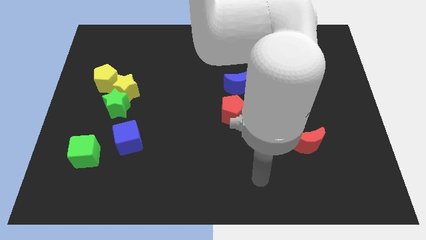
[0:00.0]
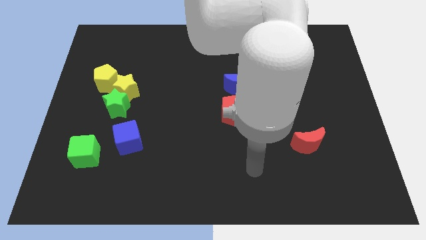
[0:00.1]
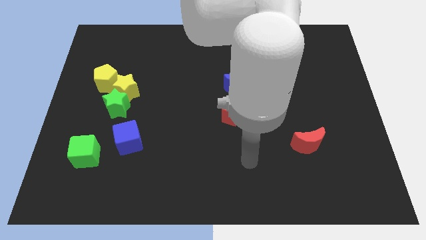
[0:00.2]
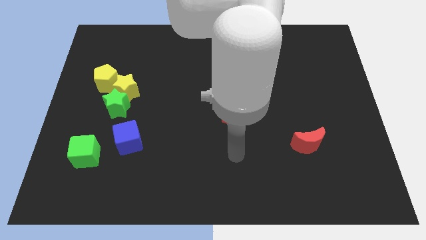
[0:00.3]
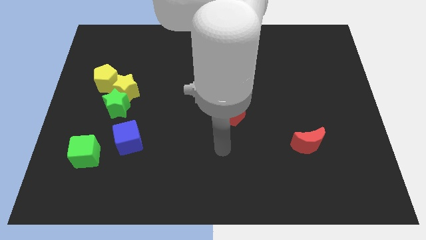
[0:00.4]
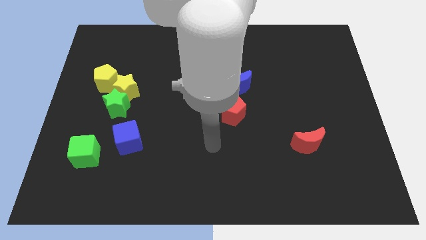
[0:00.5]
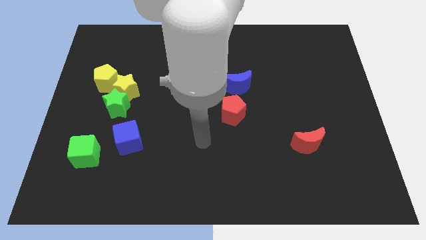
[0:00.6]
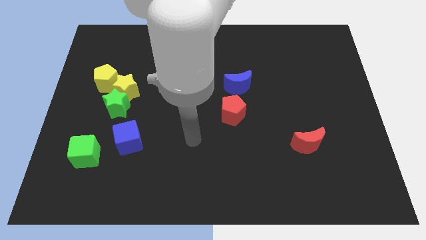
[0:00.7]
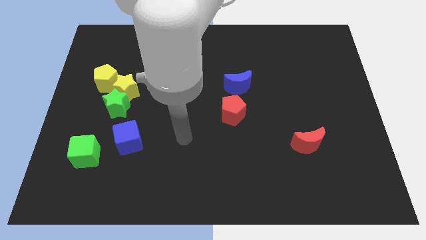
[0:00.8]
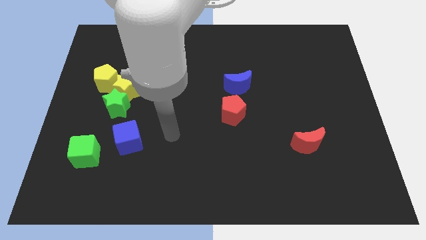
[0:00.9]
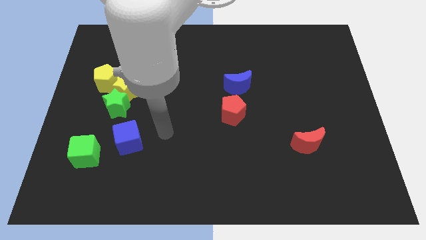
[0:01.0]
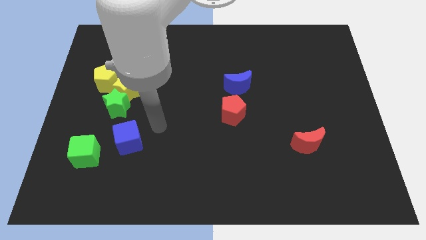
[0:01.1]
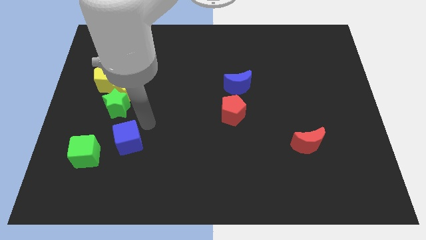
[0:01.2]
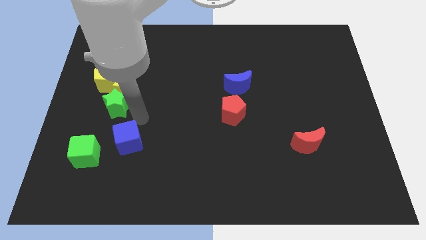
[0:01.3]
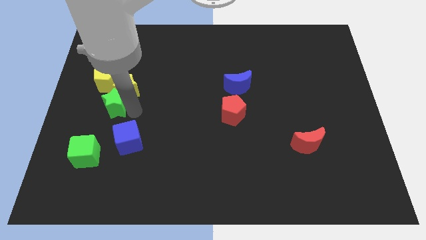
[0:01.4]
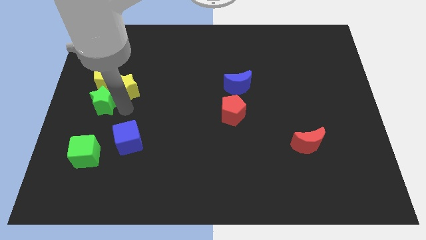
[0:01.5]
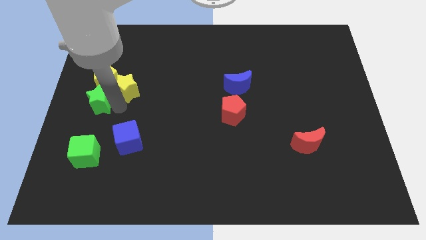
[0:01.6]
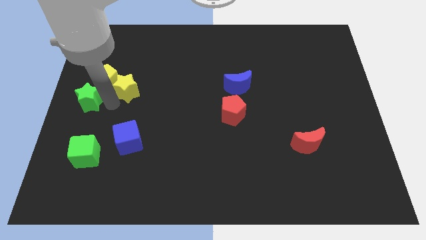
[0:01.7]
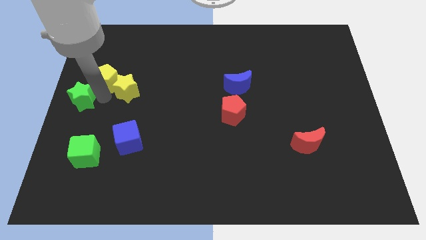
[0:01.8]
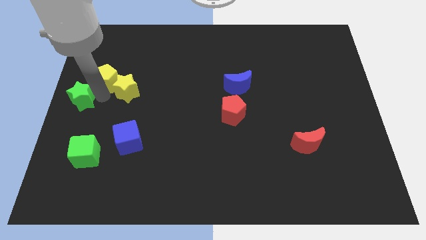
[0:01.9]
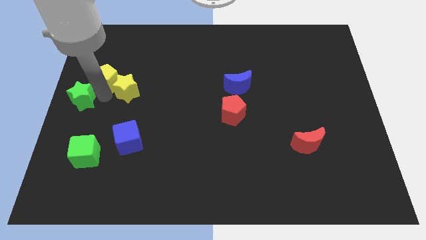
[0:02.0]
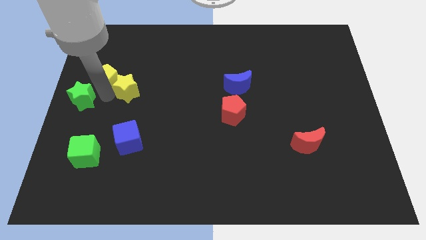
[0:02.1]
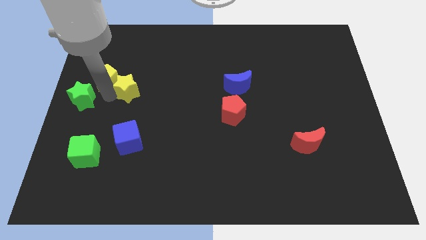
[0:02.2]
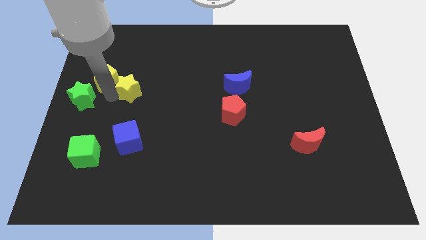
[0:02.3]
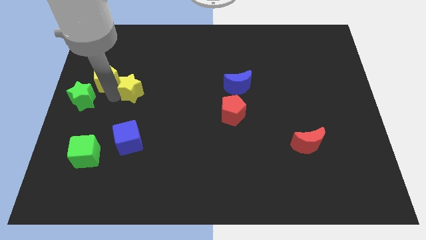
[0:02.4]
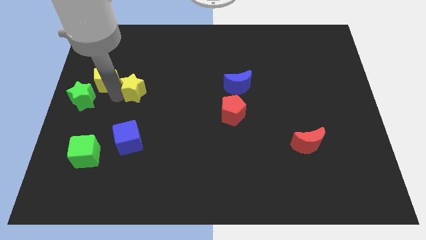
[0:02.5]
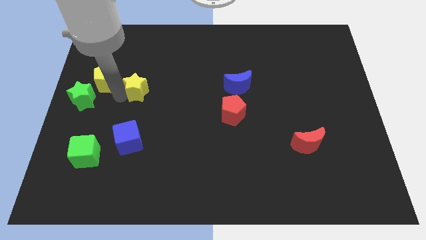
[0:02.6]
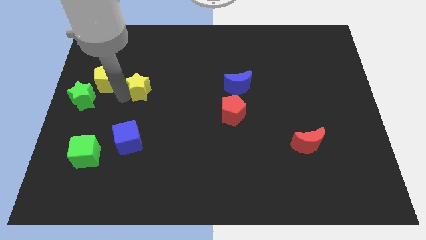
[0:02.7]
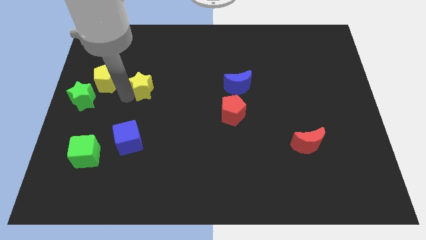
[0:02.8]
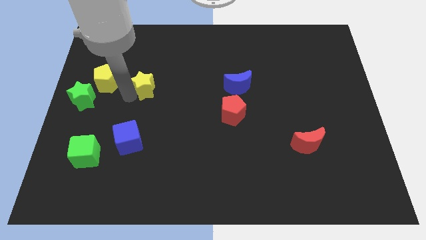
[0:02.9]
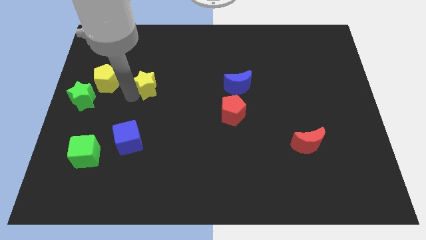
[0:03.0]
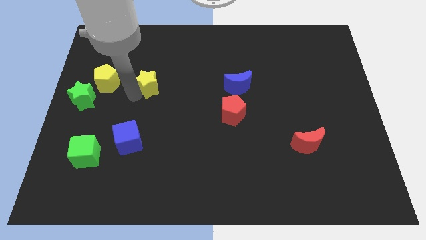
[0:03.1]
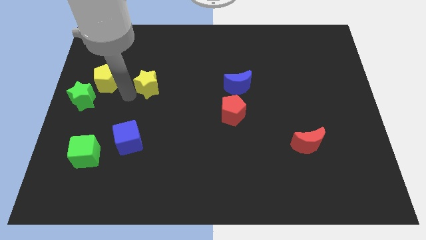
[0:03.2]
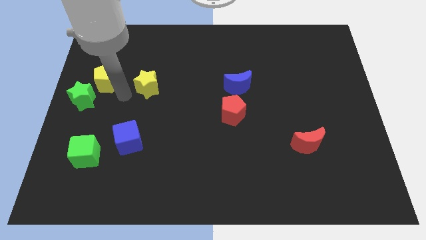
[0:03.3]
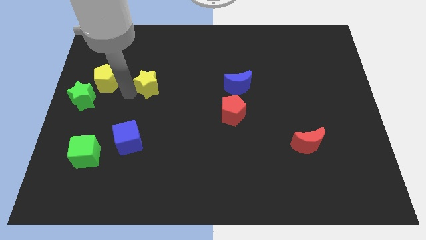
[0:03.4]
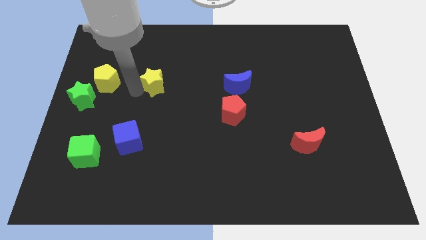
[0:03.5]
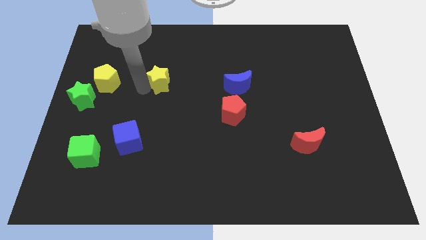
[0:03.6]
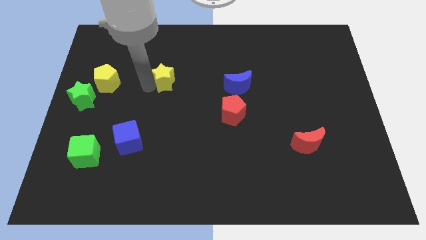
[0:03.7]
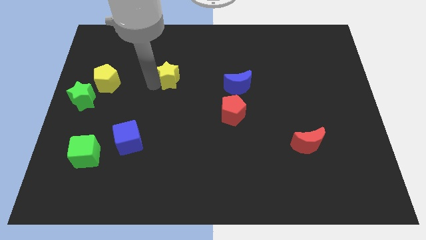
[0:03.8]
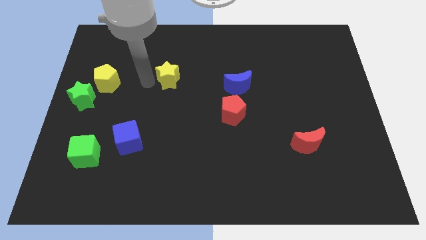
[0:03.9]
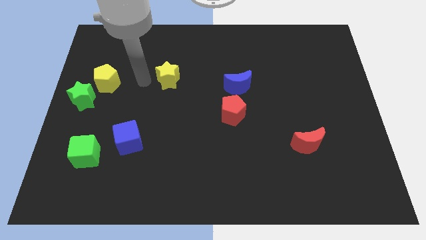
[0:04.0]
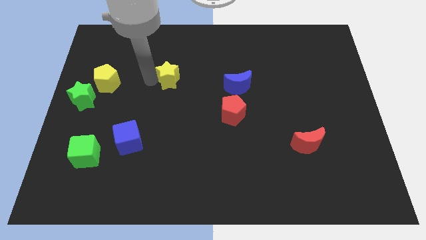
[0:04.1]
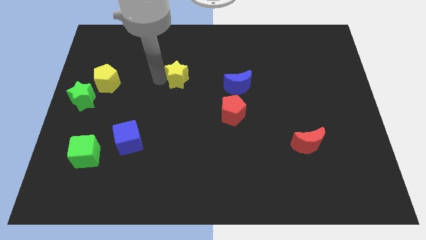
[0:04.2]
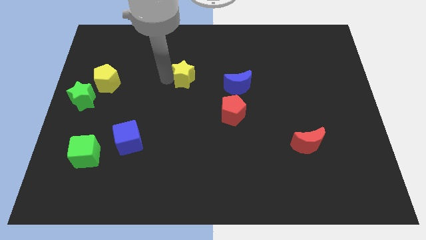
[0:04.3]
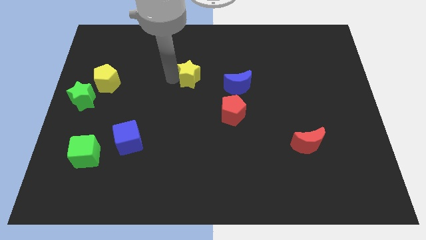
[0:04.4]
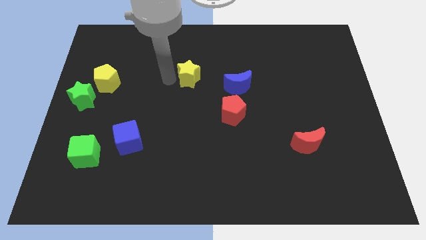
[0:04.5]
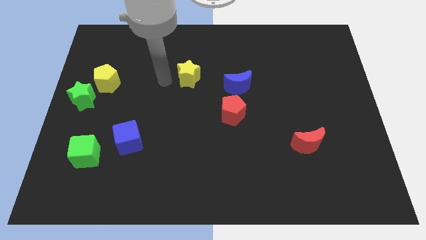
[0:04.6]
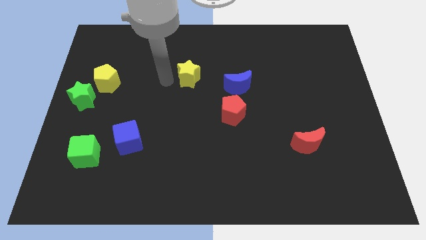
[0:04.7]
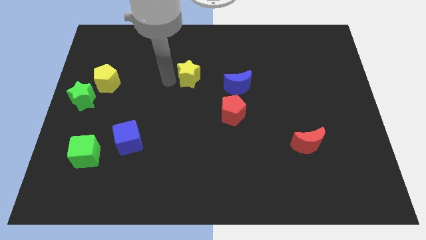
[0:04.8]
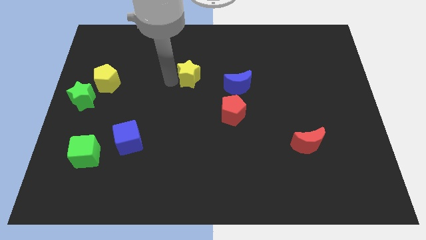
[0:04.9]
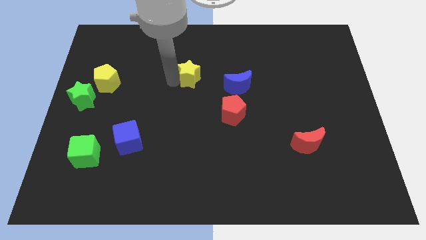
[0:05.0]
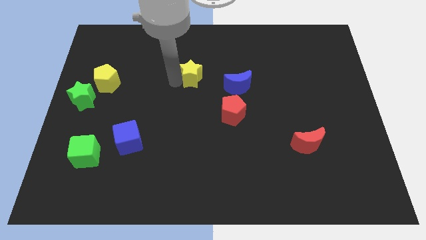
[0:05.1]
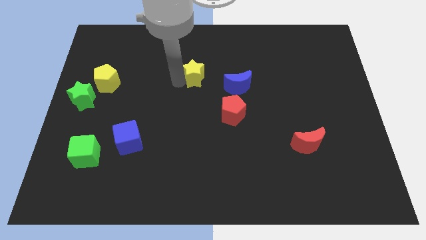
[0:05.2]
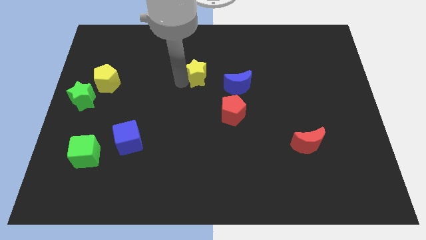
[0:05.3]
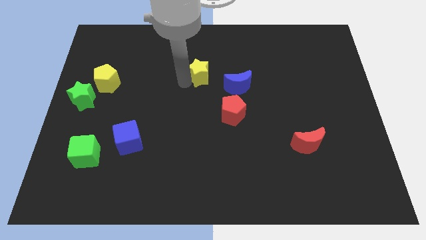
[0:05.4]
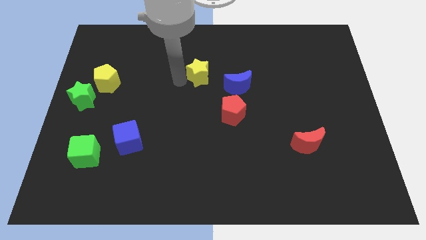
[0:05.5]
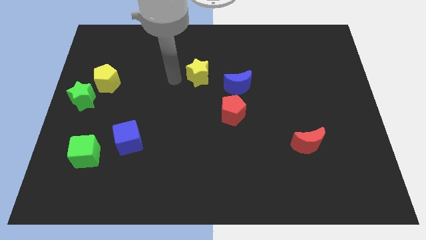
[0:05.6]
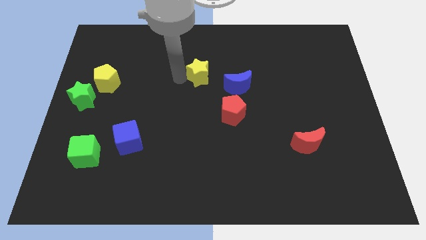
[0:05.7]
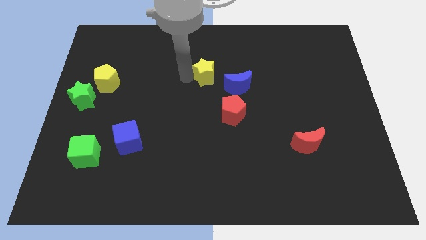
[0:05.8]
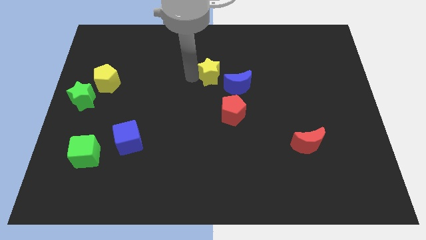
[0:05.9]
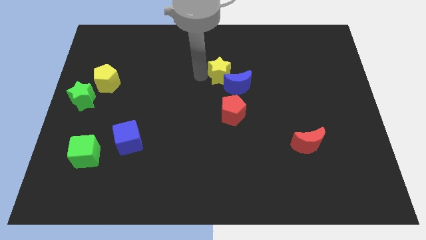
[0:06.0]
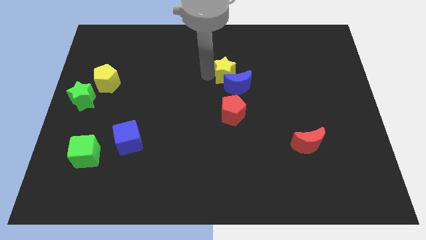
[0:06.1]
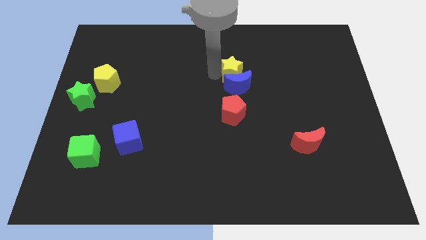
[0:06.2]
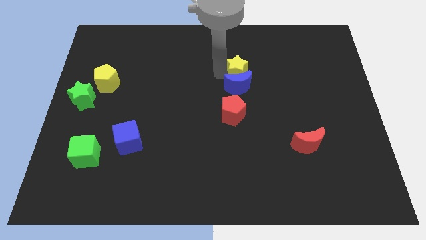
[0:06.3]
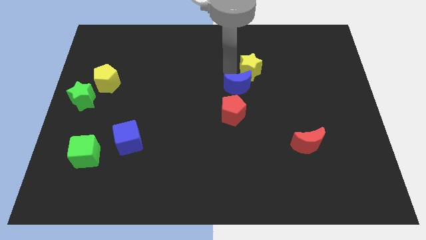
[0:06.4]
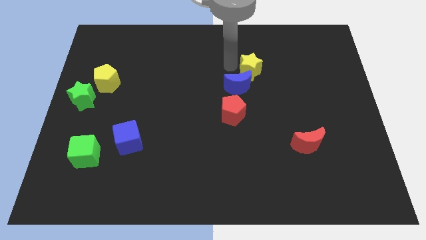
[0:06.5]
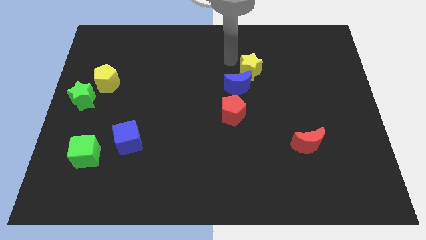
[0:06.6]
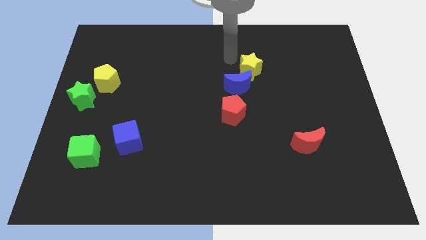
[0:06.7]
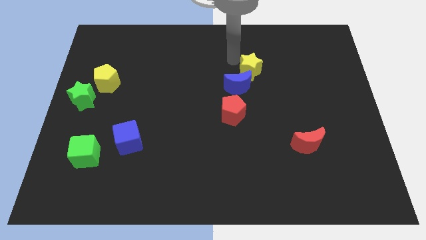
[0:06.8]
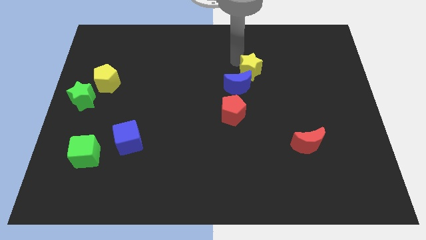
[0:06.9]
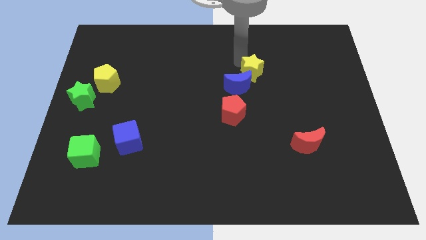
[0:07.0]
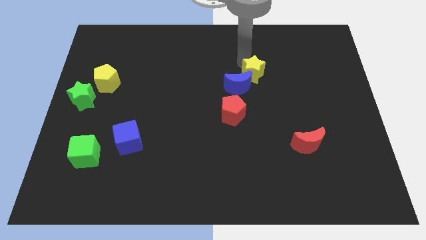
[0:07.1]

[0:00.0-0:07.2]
slide the yellow star to the right side of the blue moon

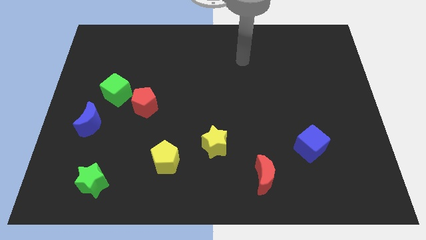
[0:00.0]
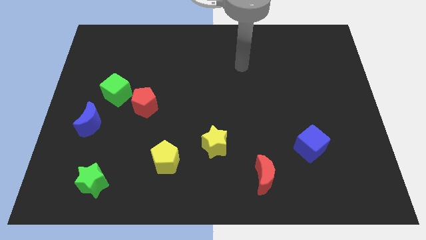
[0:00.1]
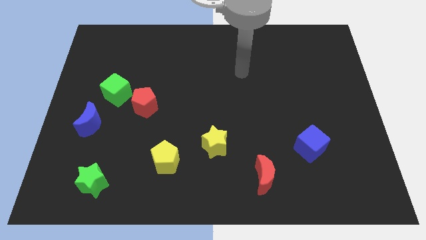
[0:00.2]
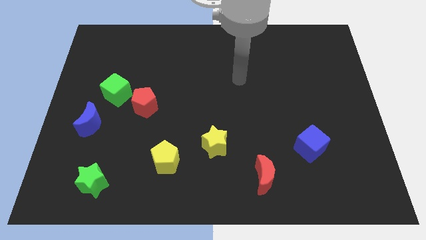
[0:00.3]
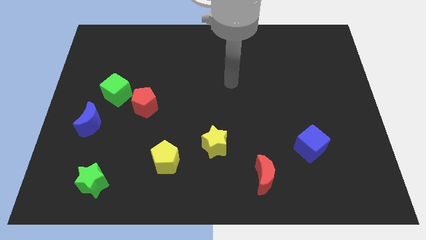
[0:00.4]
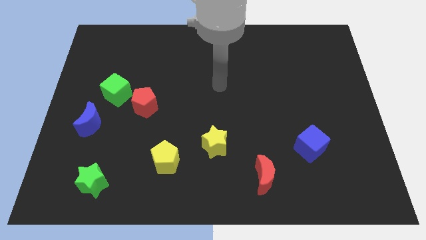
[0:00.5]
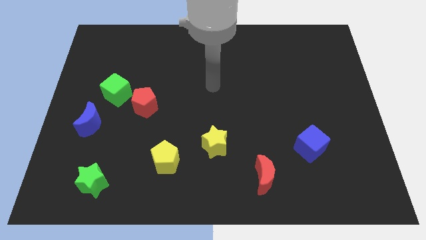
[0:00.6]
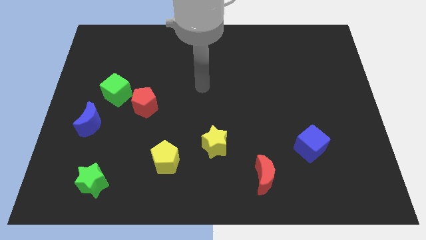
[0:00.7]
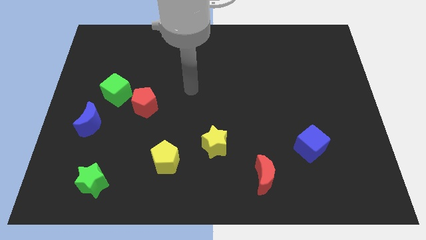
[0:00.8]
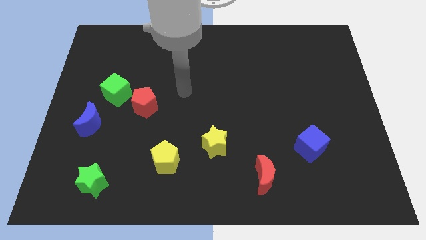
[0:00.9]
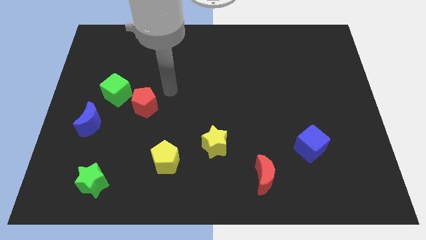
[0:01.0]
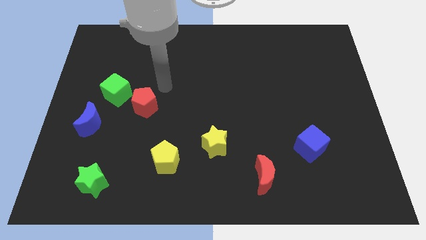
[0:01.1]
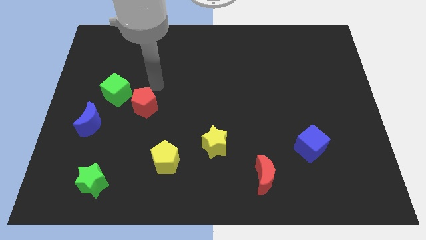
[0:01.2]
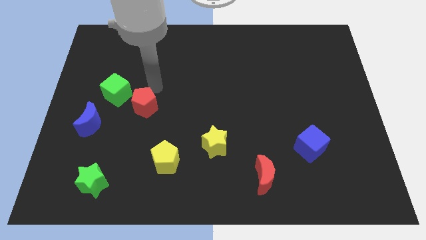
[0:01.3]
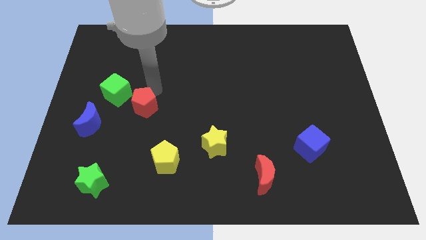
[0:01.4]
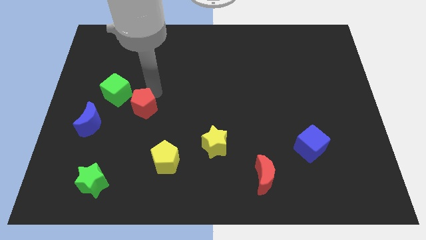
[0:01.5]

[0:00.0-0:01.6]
put the red pentagon to the right of the blue moon
